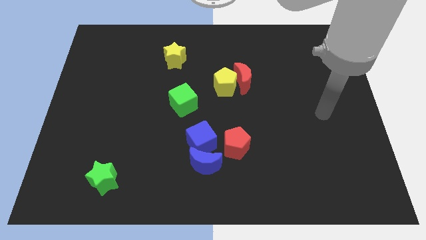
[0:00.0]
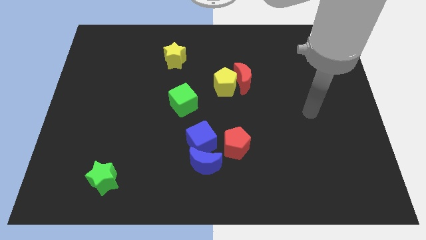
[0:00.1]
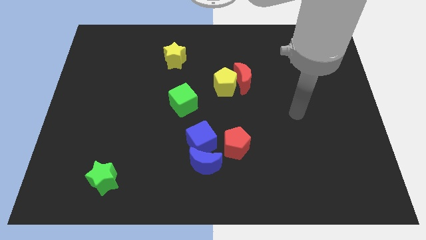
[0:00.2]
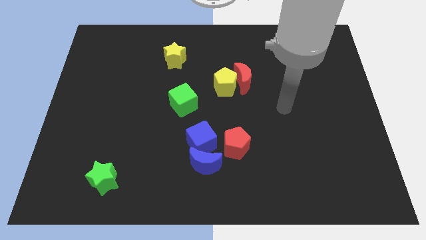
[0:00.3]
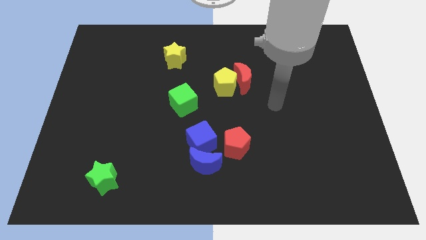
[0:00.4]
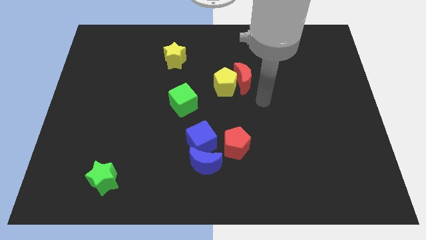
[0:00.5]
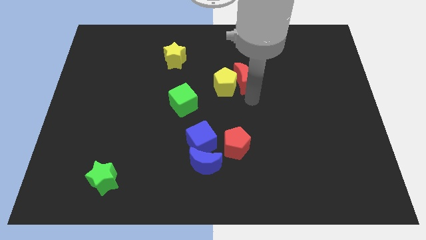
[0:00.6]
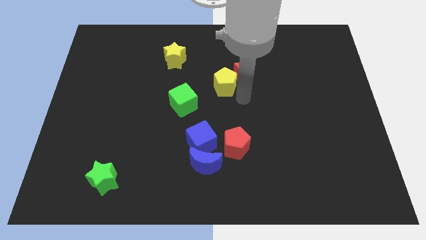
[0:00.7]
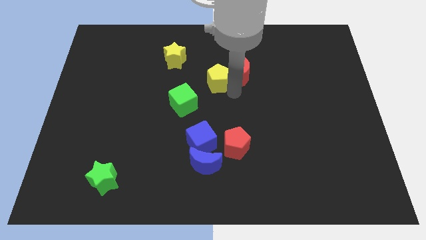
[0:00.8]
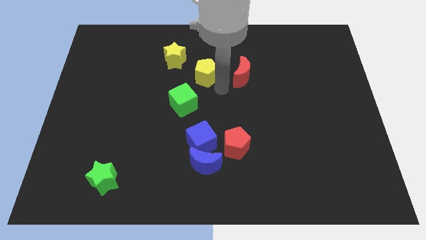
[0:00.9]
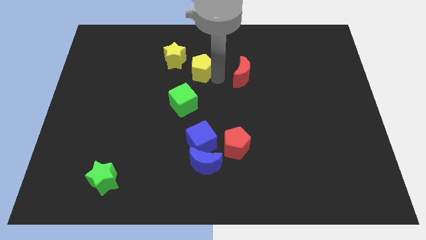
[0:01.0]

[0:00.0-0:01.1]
pull the red moon apart from the yellow pentagon

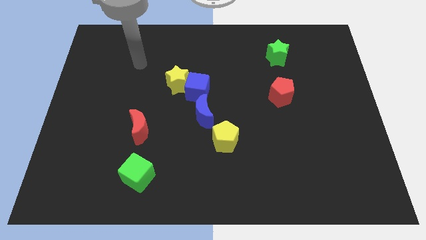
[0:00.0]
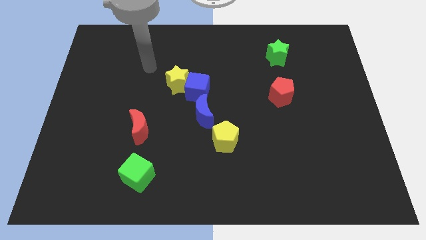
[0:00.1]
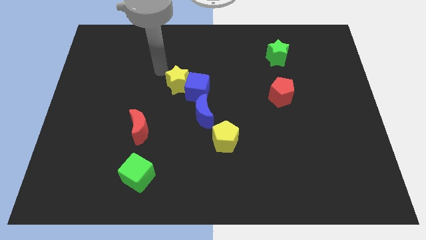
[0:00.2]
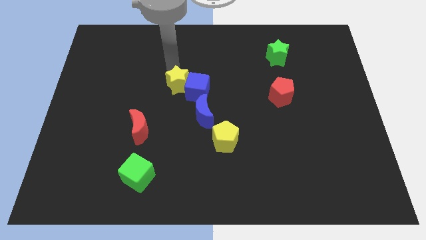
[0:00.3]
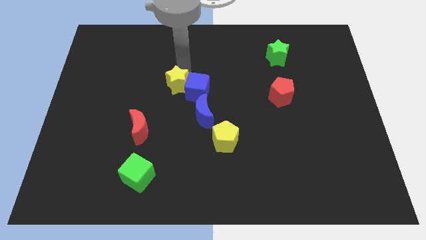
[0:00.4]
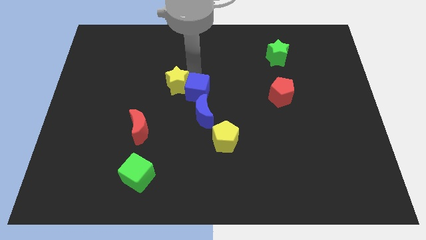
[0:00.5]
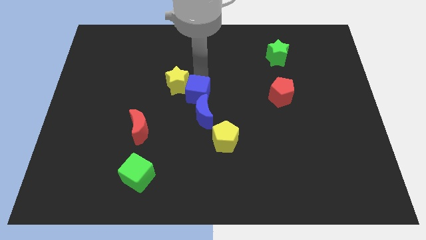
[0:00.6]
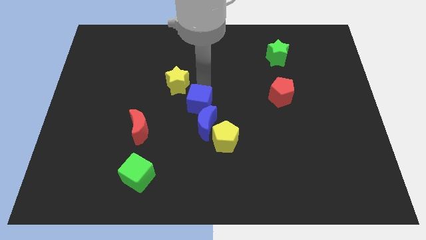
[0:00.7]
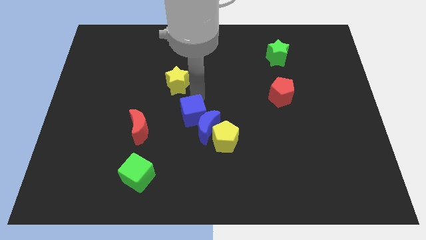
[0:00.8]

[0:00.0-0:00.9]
move the yellow star away from the blue cube

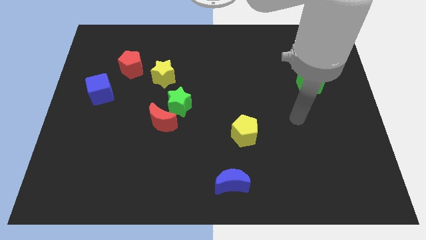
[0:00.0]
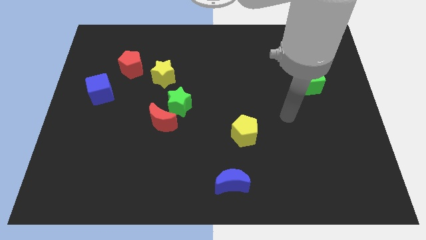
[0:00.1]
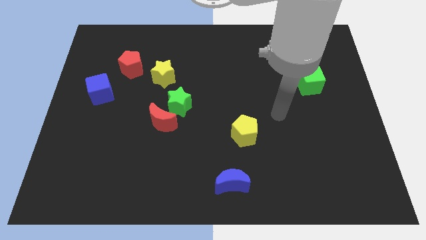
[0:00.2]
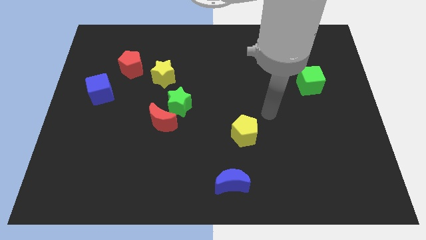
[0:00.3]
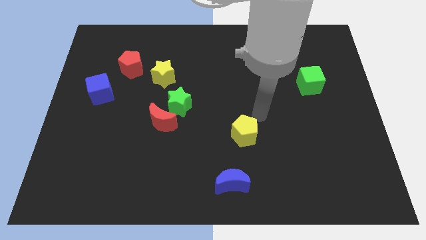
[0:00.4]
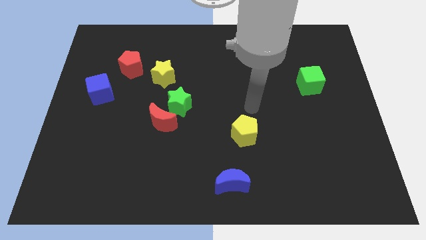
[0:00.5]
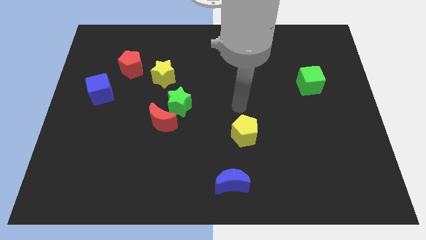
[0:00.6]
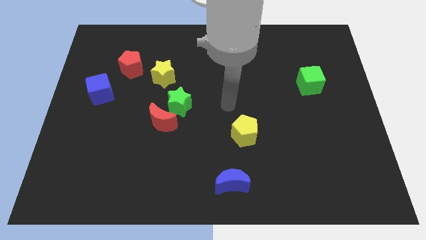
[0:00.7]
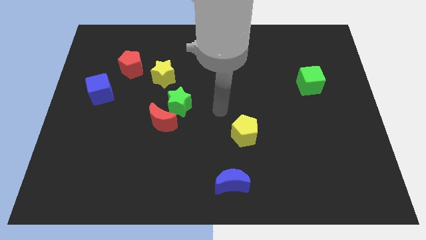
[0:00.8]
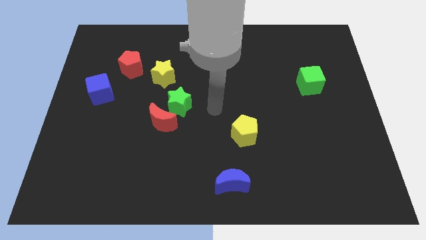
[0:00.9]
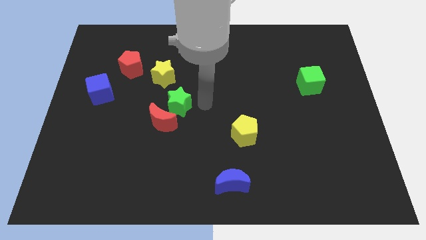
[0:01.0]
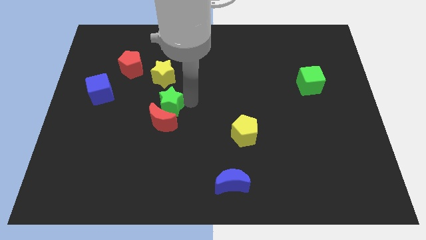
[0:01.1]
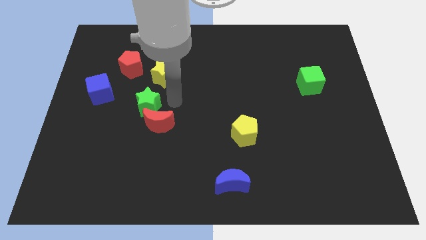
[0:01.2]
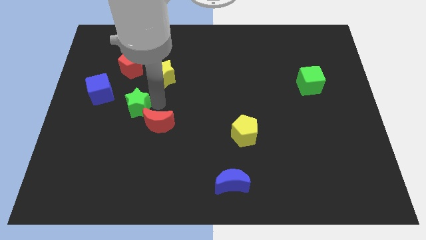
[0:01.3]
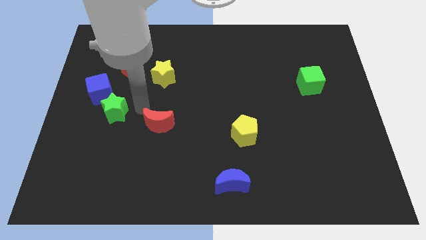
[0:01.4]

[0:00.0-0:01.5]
pull the red moon apart from the green star

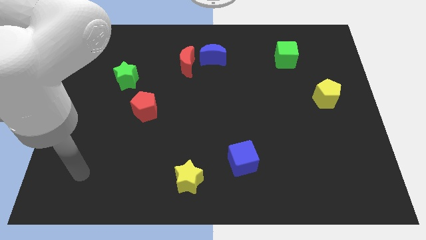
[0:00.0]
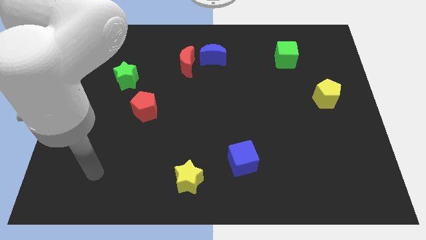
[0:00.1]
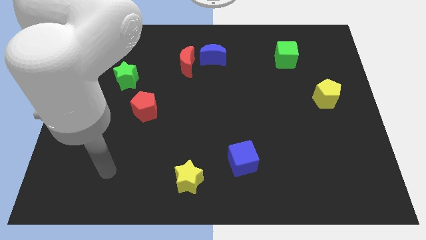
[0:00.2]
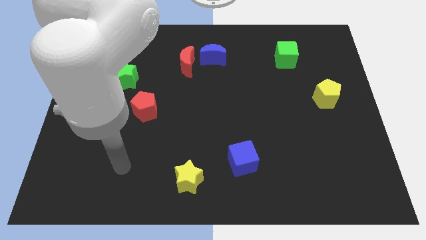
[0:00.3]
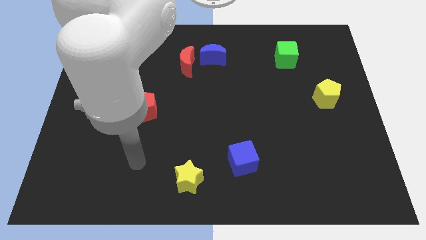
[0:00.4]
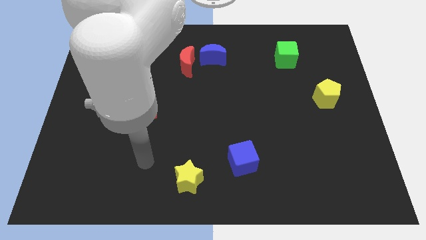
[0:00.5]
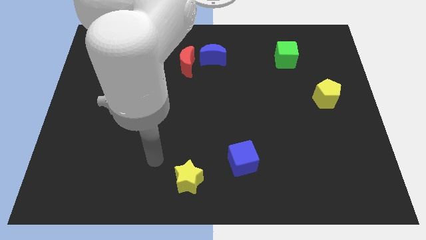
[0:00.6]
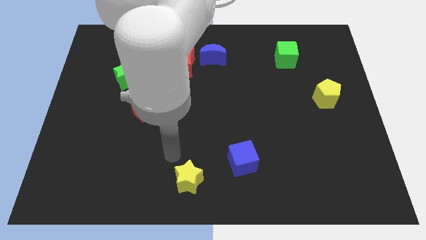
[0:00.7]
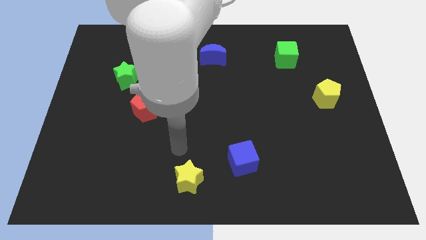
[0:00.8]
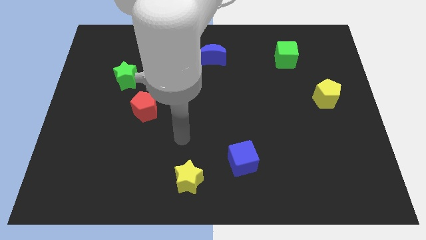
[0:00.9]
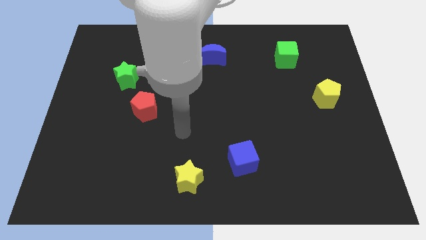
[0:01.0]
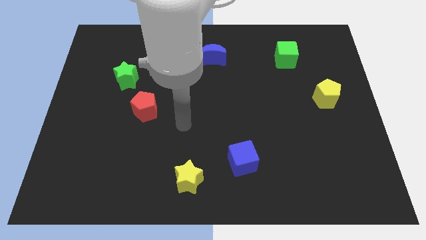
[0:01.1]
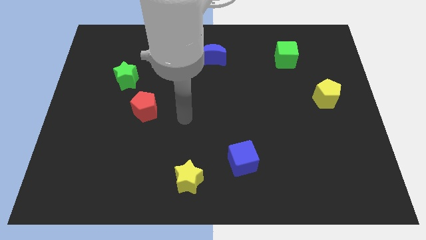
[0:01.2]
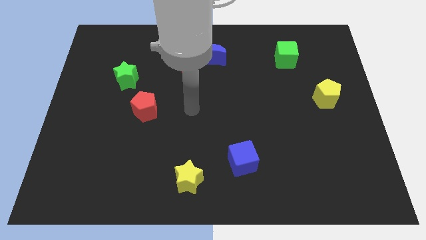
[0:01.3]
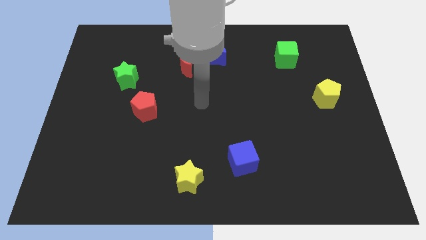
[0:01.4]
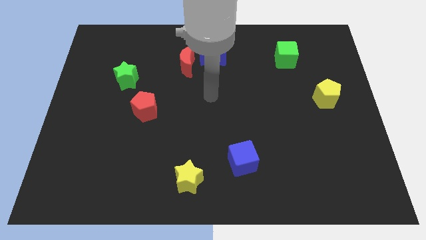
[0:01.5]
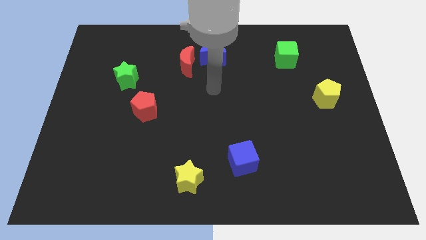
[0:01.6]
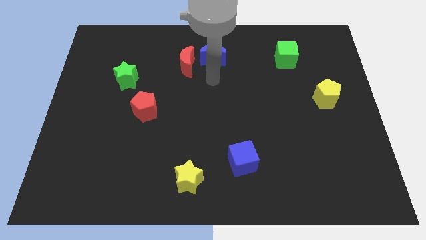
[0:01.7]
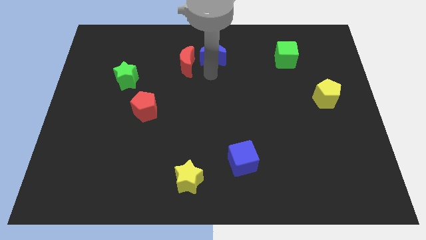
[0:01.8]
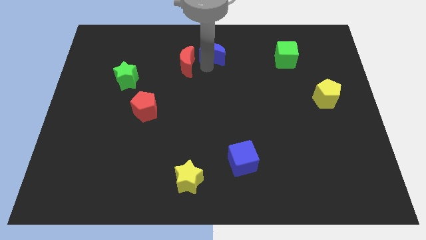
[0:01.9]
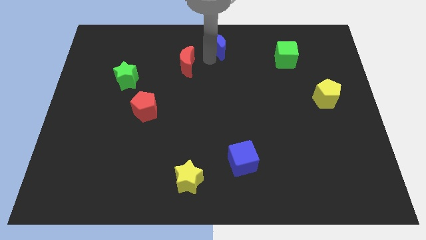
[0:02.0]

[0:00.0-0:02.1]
move the red moon away from the blue moon

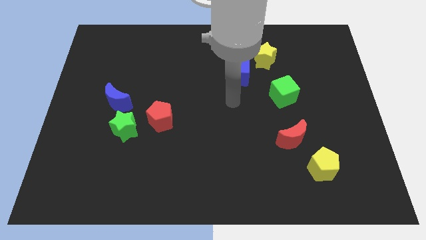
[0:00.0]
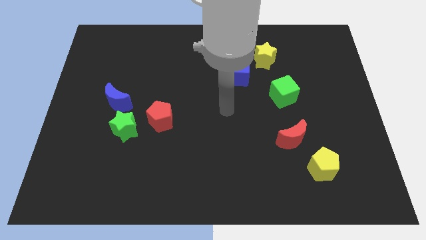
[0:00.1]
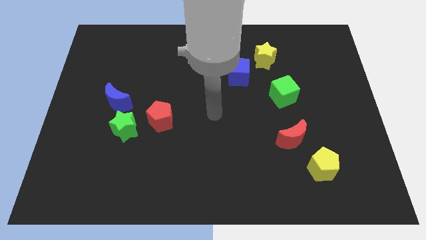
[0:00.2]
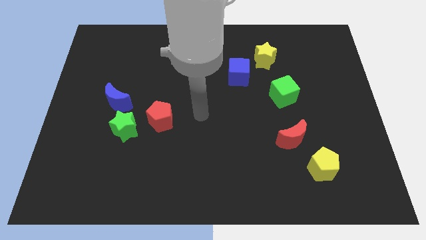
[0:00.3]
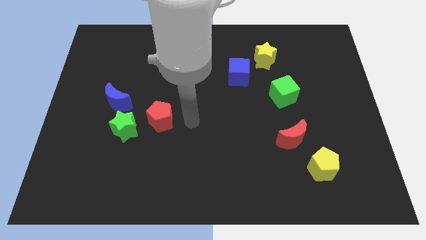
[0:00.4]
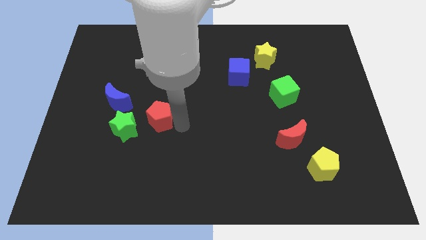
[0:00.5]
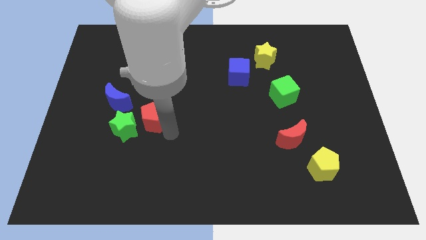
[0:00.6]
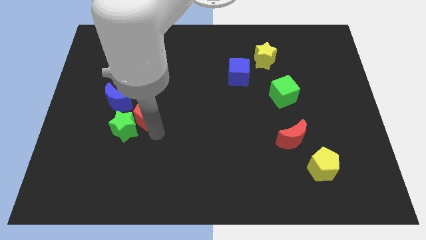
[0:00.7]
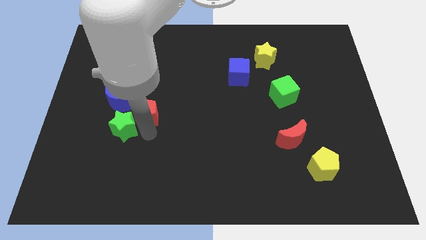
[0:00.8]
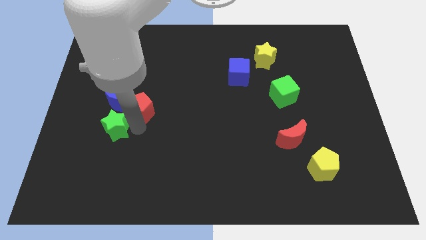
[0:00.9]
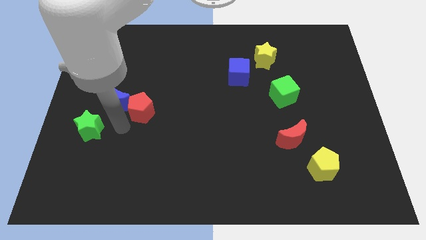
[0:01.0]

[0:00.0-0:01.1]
move the red pentagon away from the green star

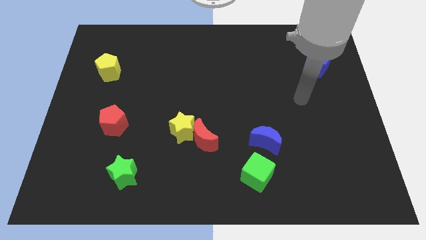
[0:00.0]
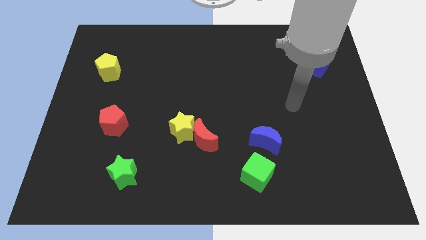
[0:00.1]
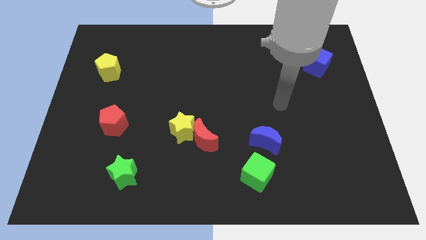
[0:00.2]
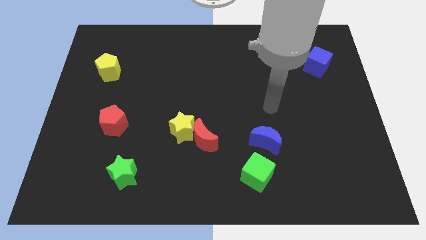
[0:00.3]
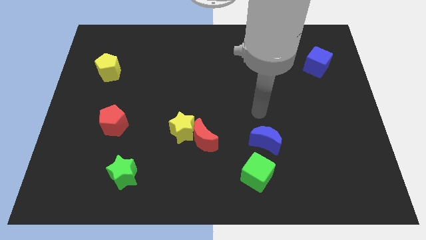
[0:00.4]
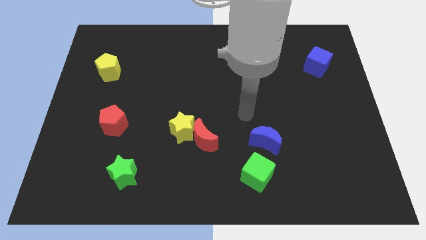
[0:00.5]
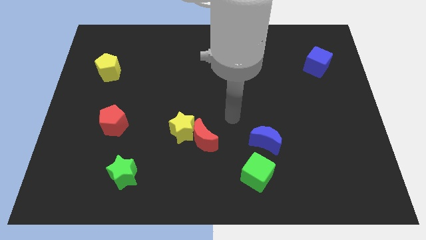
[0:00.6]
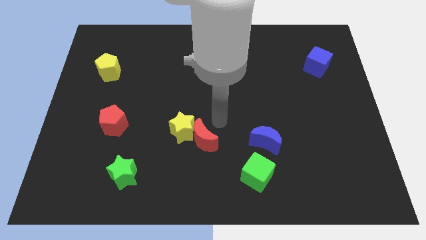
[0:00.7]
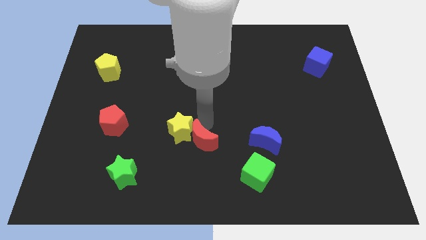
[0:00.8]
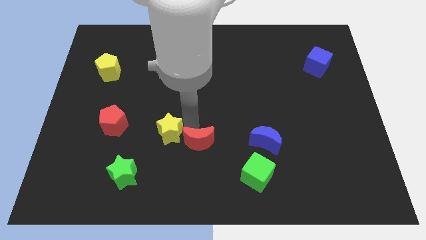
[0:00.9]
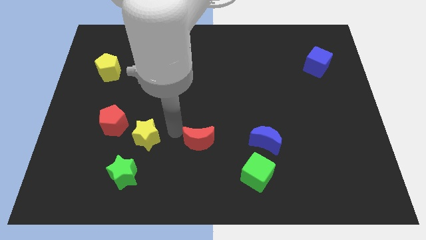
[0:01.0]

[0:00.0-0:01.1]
separate the red moon from the yellow star

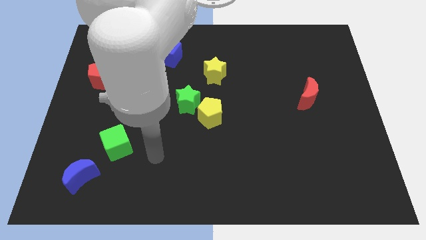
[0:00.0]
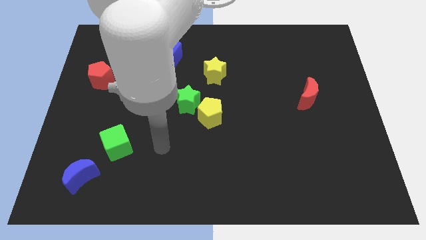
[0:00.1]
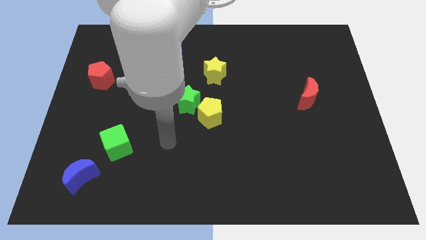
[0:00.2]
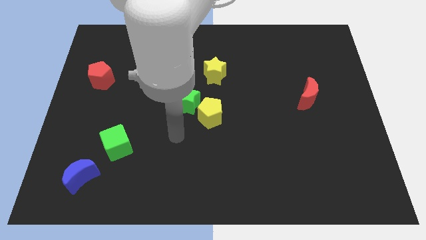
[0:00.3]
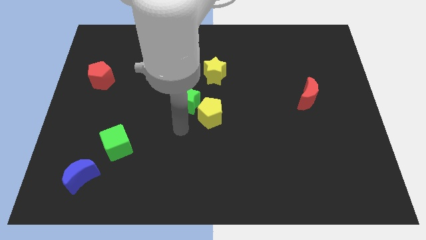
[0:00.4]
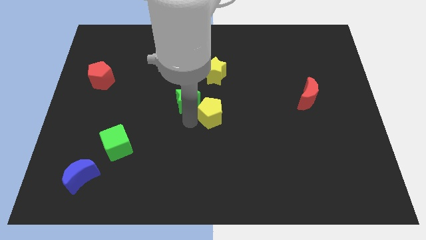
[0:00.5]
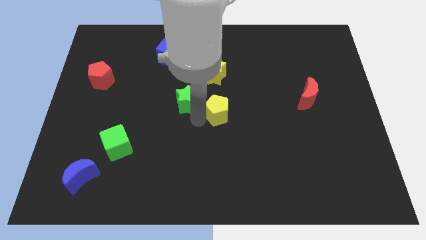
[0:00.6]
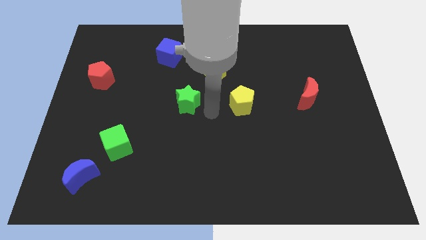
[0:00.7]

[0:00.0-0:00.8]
move the green star away from the yellow pentagon

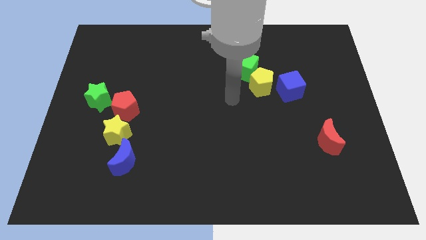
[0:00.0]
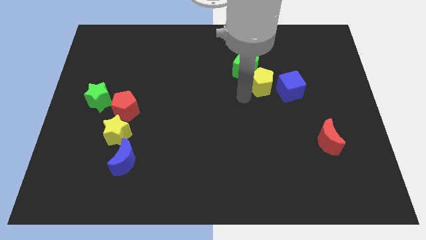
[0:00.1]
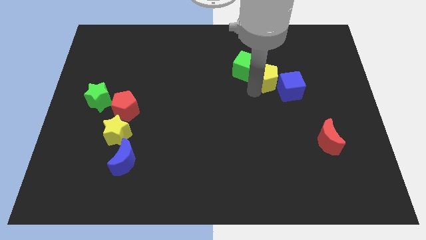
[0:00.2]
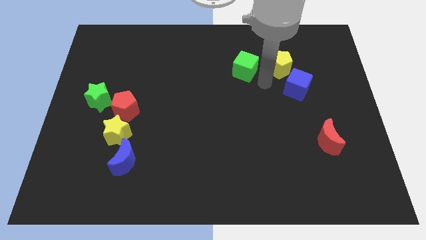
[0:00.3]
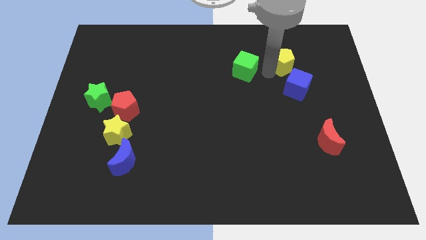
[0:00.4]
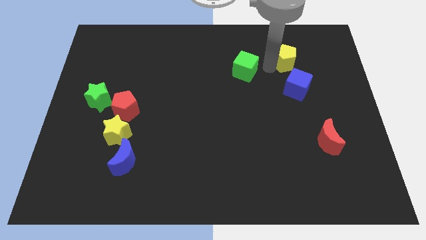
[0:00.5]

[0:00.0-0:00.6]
pull the green cube apart from the yellow pentagon
